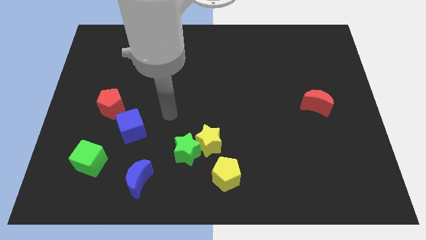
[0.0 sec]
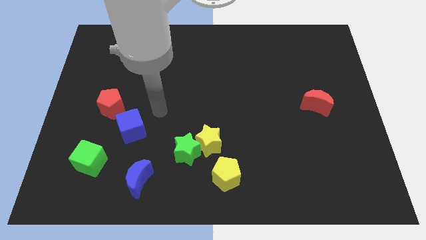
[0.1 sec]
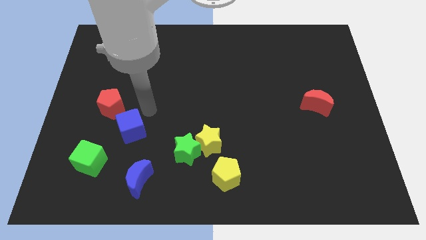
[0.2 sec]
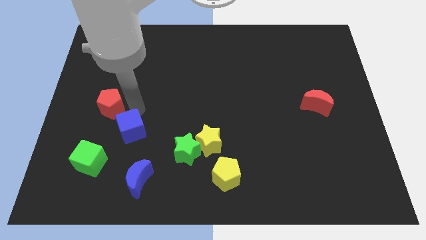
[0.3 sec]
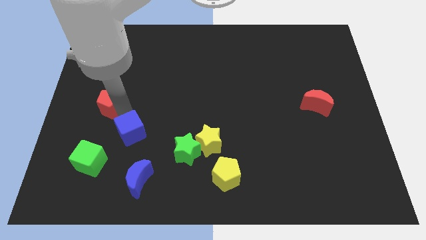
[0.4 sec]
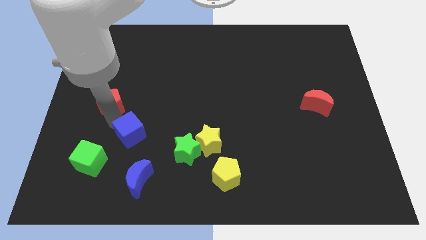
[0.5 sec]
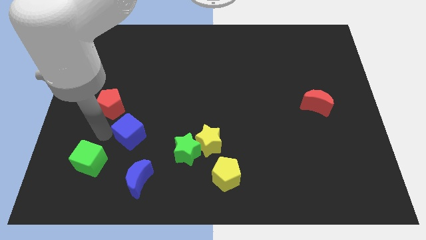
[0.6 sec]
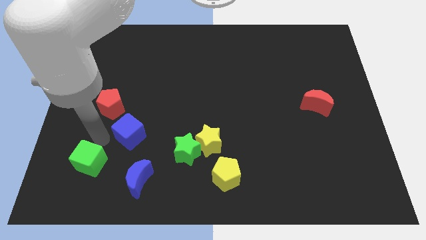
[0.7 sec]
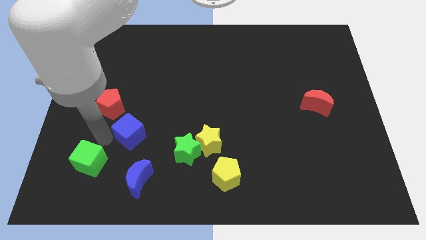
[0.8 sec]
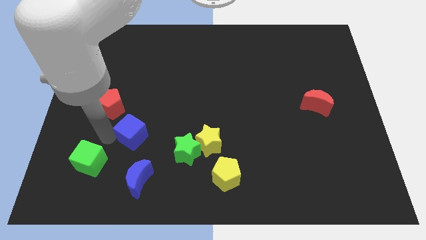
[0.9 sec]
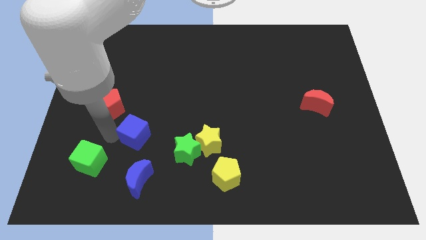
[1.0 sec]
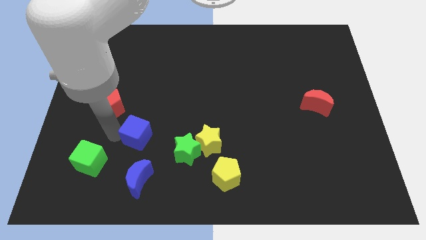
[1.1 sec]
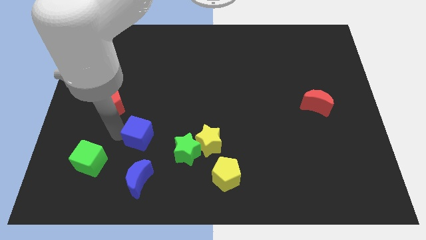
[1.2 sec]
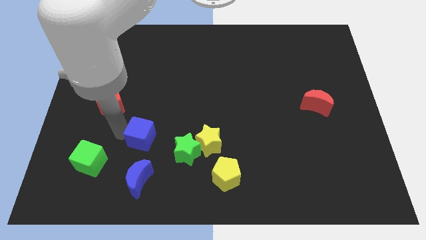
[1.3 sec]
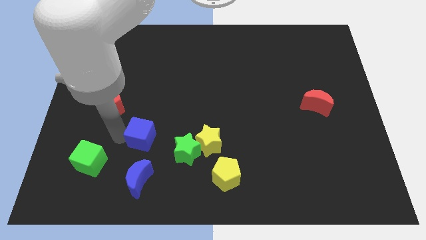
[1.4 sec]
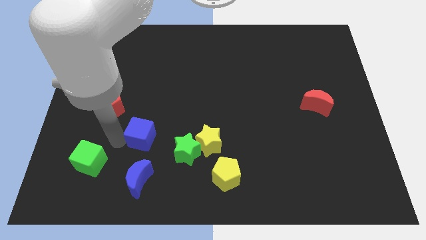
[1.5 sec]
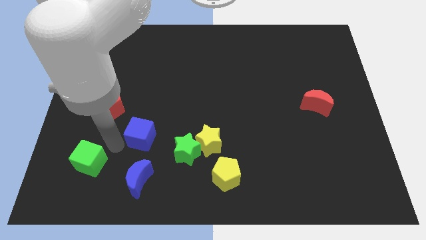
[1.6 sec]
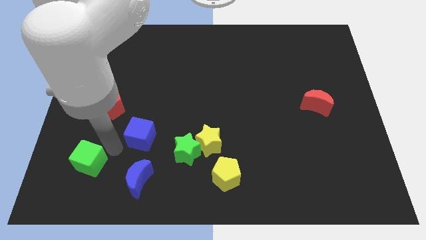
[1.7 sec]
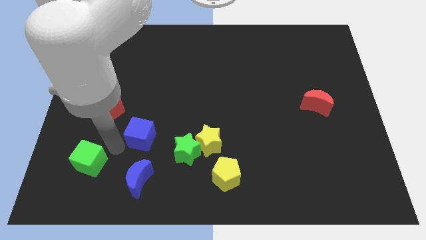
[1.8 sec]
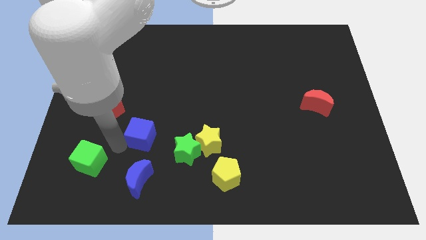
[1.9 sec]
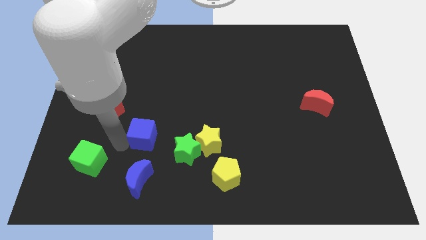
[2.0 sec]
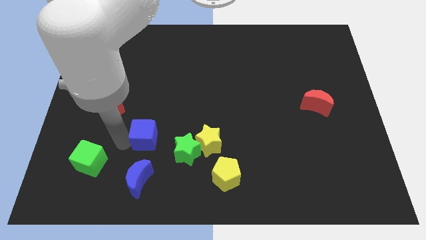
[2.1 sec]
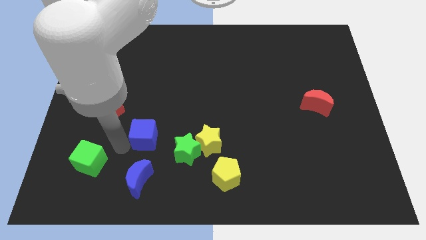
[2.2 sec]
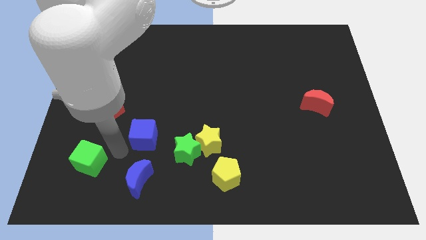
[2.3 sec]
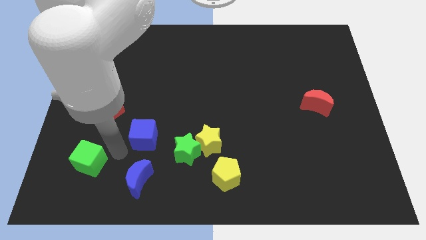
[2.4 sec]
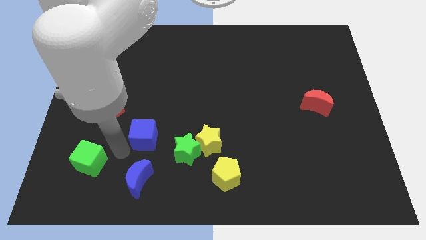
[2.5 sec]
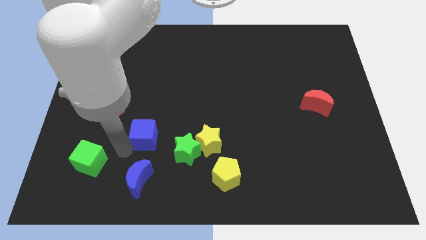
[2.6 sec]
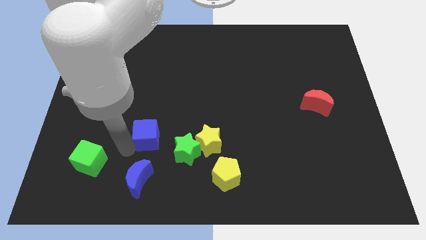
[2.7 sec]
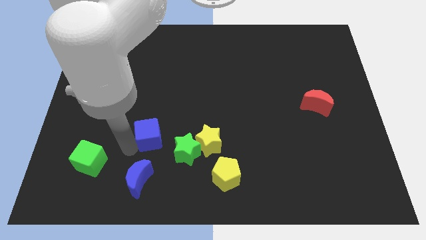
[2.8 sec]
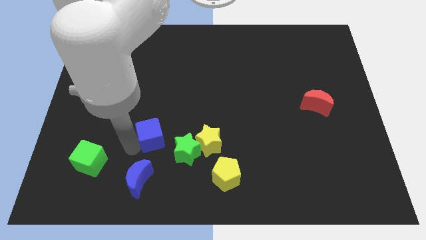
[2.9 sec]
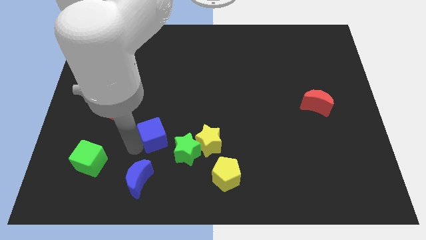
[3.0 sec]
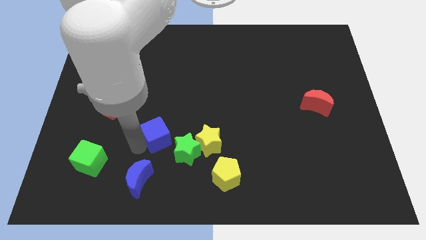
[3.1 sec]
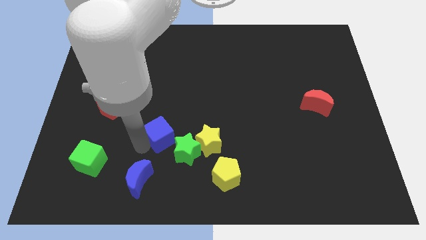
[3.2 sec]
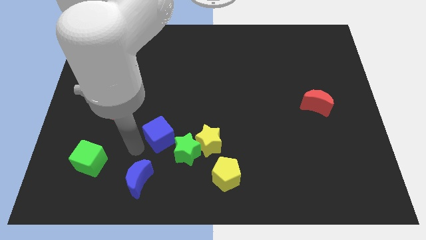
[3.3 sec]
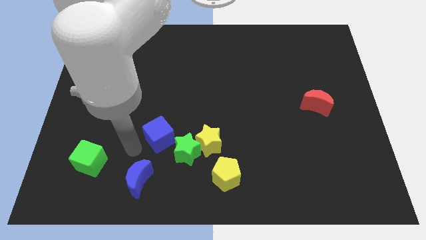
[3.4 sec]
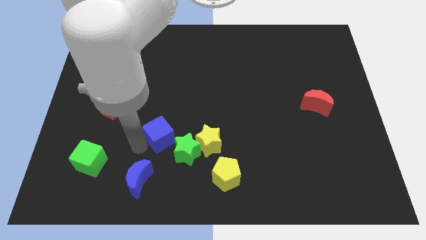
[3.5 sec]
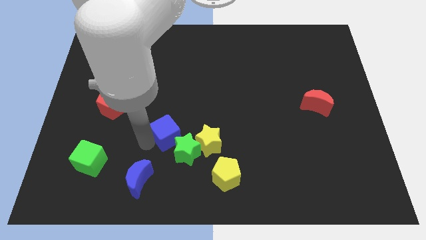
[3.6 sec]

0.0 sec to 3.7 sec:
move the blue cube to the right a little

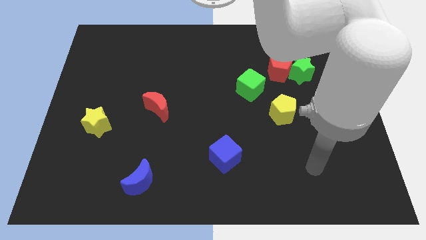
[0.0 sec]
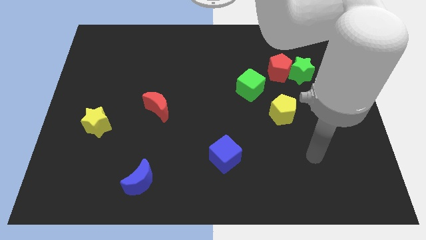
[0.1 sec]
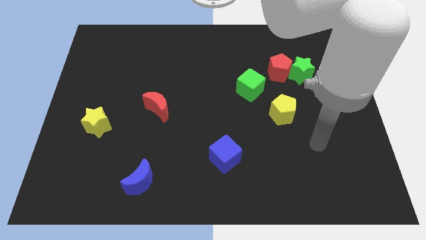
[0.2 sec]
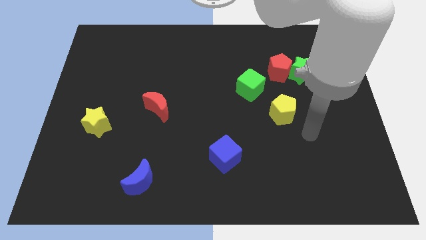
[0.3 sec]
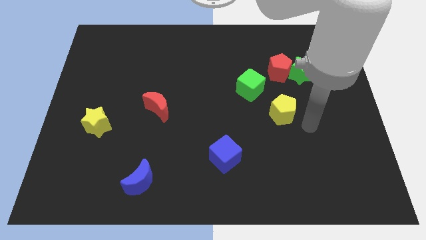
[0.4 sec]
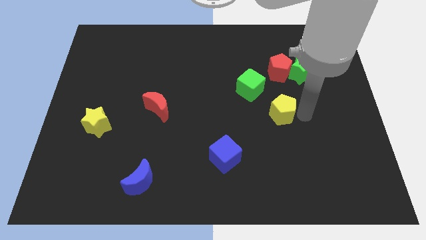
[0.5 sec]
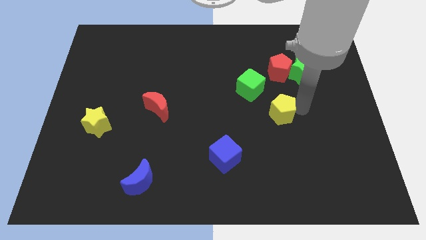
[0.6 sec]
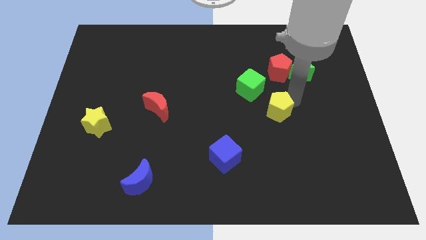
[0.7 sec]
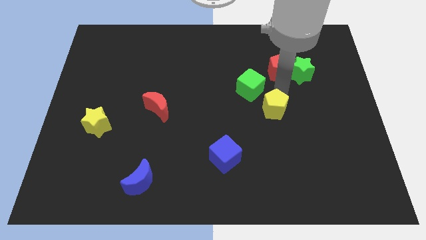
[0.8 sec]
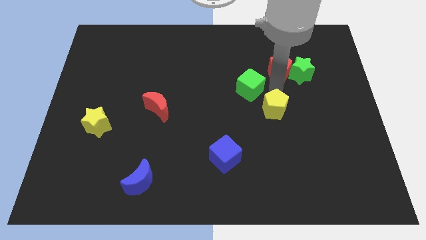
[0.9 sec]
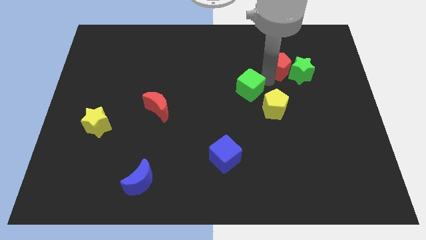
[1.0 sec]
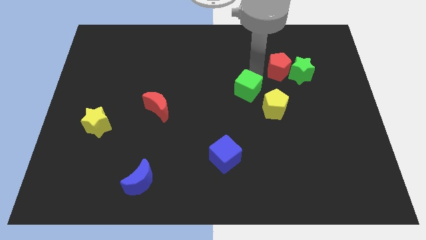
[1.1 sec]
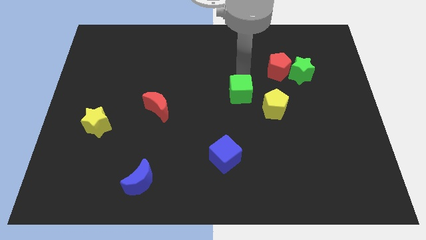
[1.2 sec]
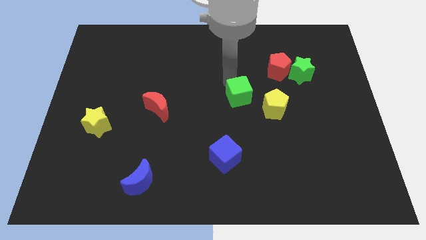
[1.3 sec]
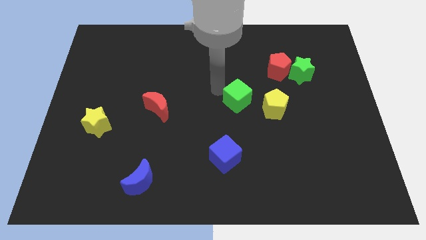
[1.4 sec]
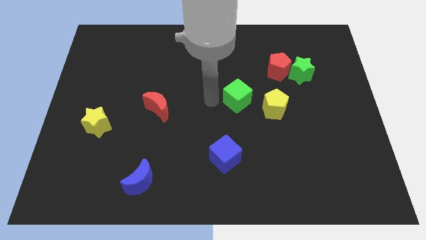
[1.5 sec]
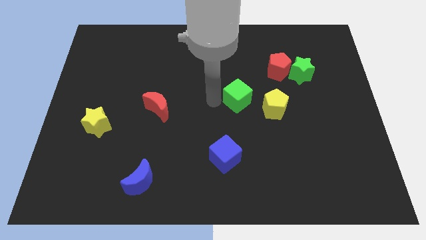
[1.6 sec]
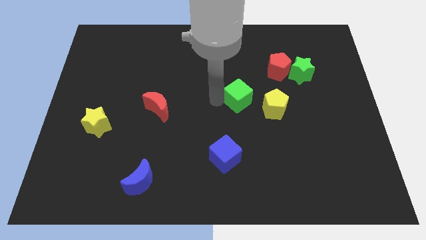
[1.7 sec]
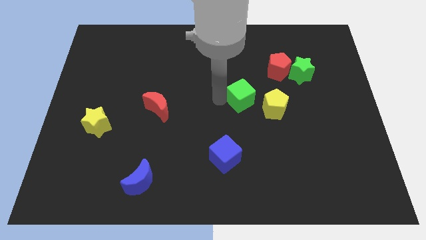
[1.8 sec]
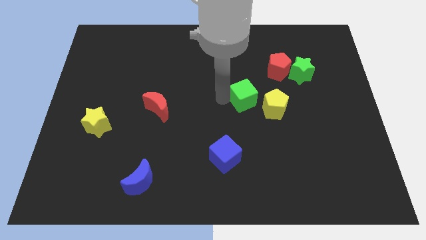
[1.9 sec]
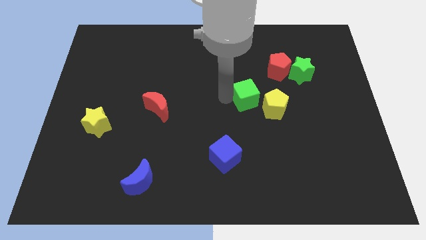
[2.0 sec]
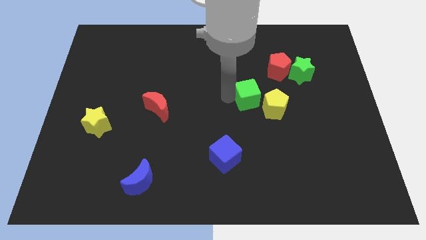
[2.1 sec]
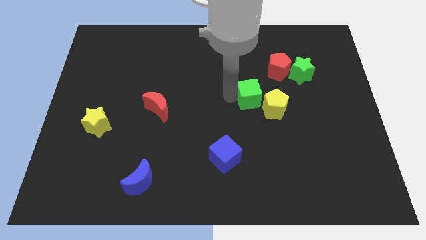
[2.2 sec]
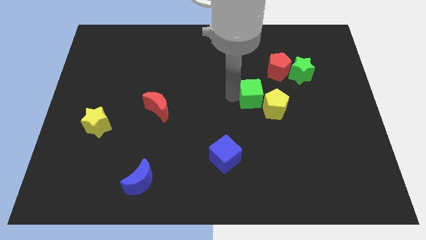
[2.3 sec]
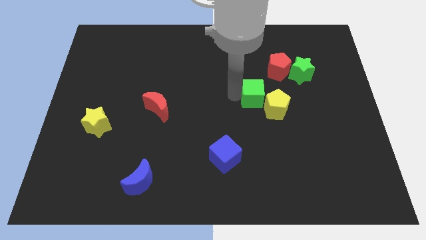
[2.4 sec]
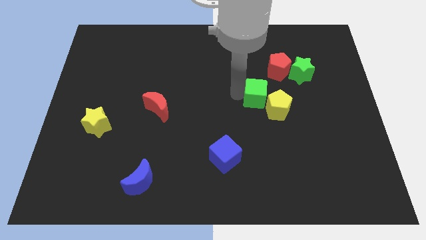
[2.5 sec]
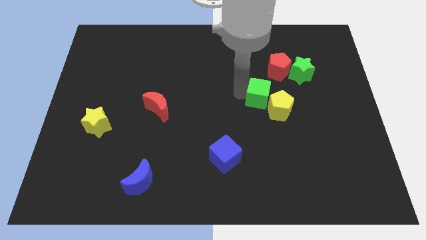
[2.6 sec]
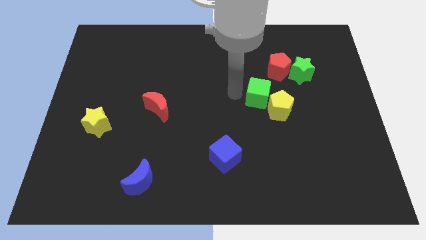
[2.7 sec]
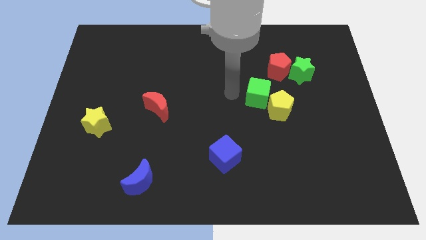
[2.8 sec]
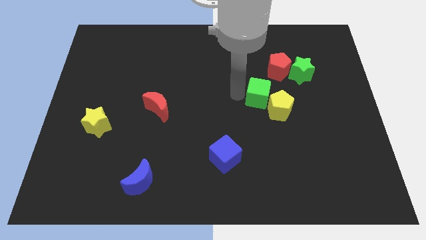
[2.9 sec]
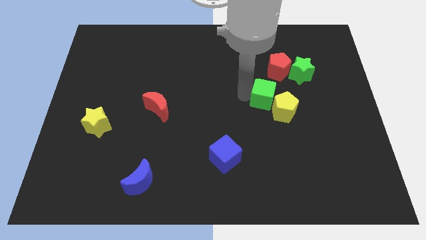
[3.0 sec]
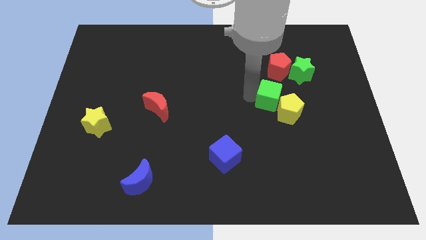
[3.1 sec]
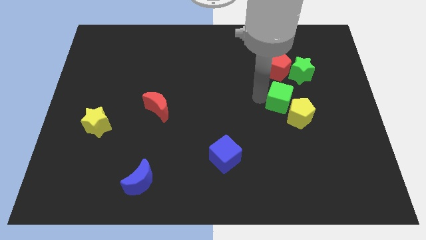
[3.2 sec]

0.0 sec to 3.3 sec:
slightly slide the green cube down and right

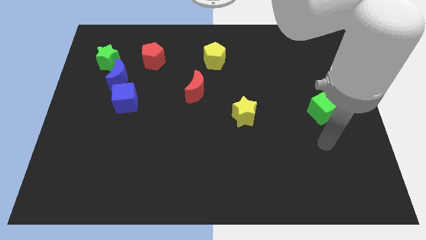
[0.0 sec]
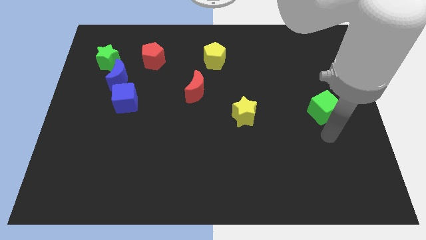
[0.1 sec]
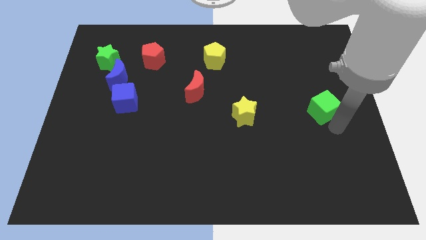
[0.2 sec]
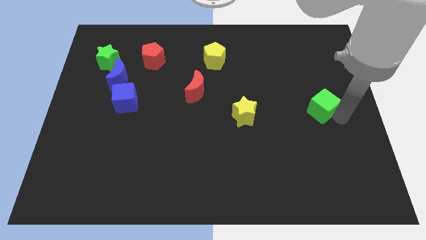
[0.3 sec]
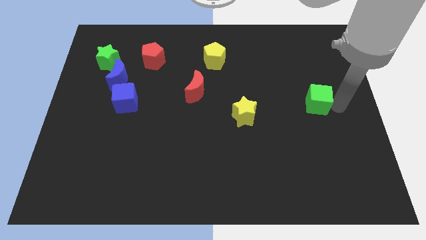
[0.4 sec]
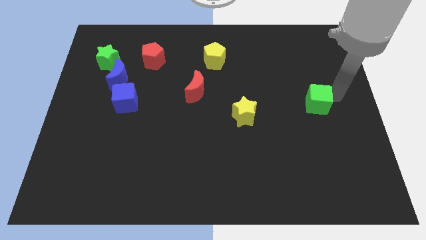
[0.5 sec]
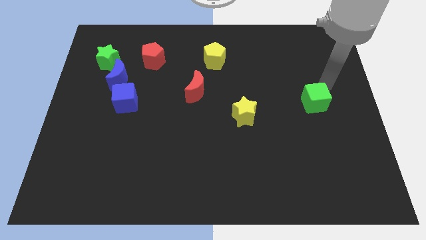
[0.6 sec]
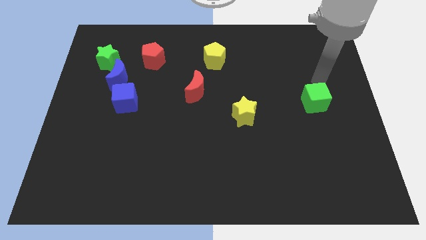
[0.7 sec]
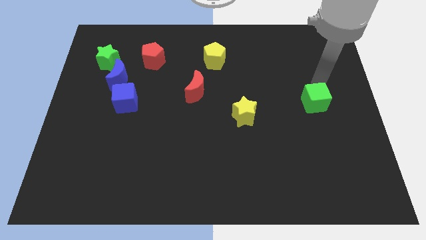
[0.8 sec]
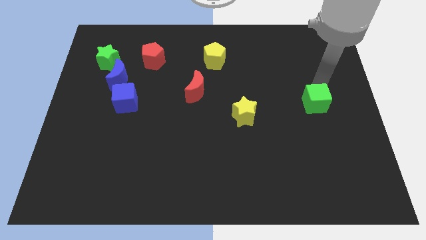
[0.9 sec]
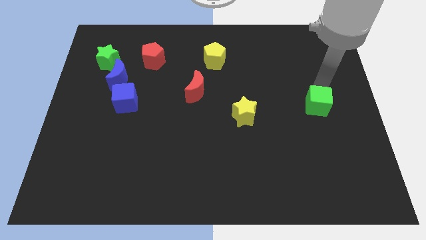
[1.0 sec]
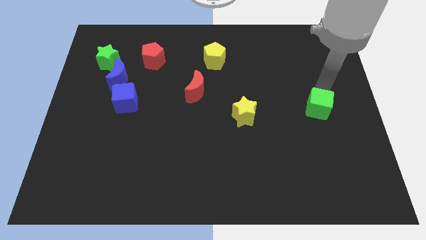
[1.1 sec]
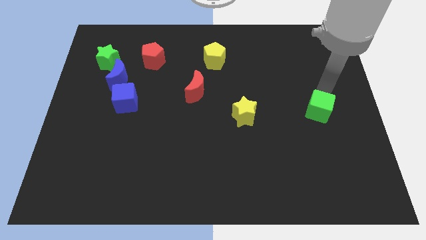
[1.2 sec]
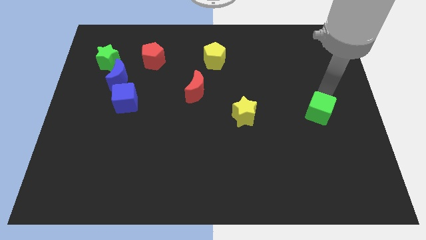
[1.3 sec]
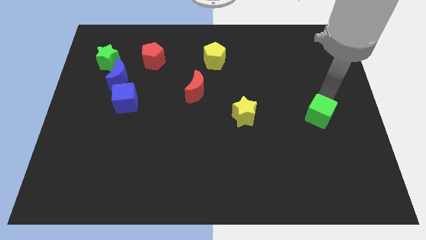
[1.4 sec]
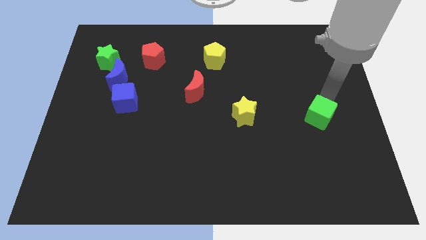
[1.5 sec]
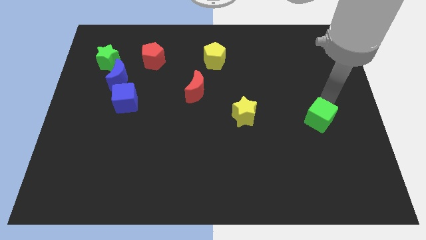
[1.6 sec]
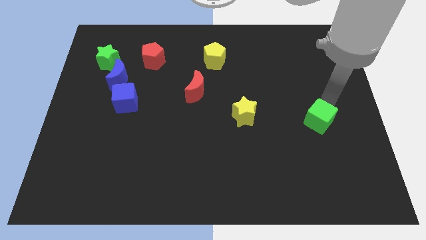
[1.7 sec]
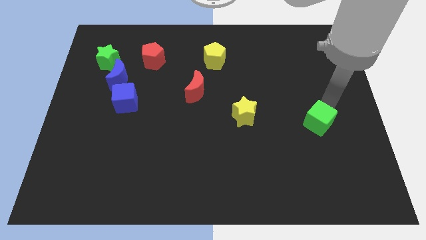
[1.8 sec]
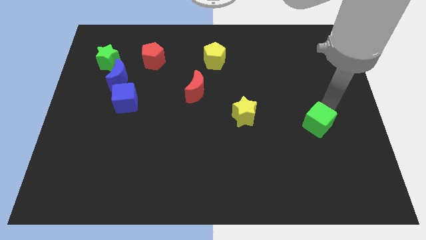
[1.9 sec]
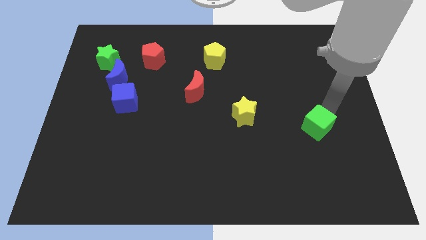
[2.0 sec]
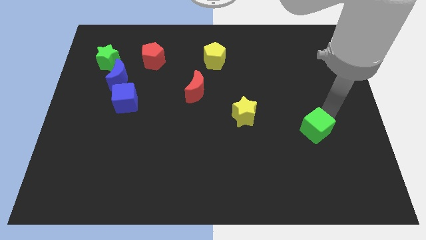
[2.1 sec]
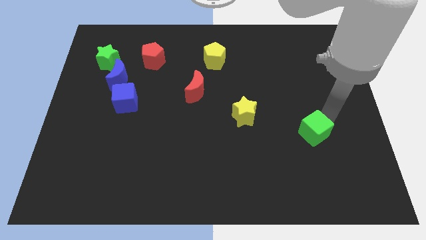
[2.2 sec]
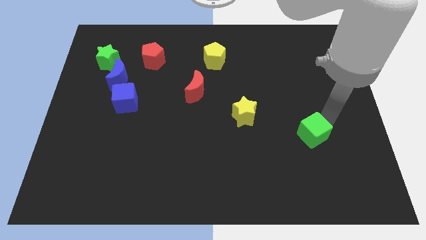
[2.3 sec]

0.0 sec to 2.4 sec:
move the green cube downwards and then left slightly
